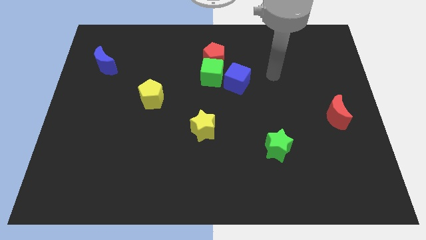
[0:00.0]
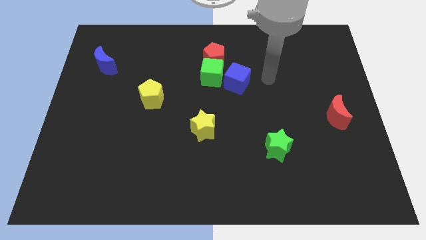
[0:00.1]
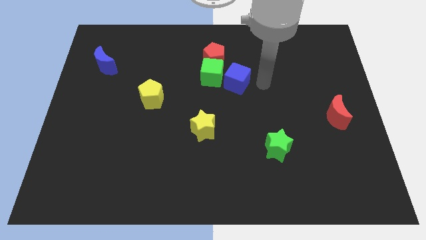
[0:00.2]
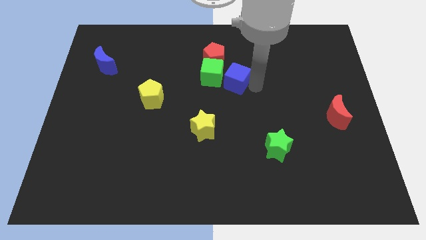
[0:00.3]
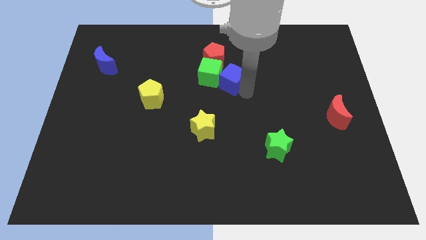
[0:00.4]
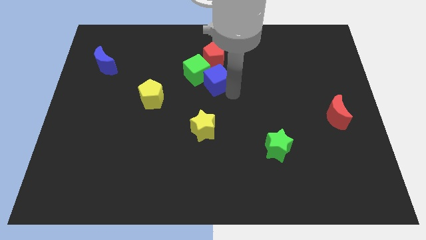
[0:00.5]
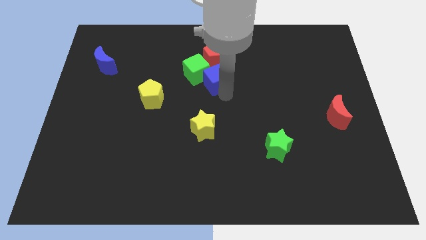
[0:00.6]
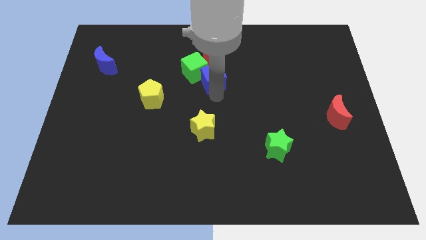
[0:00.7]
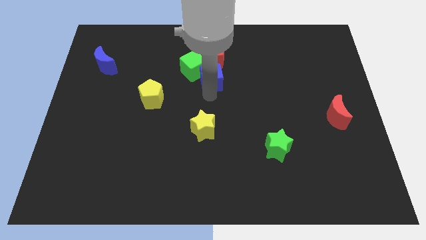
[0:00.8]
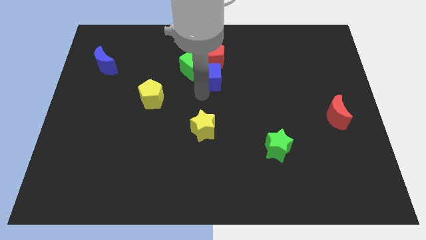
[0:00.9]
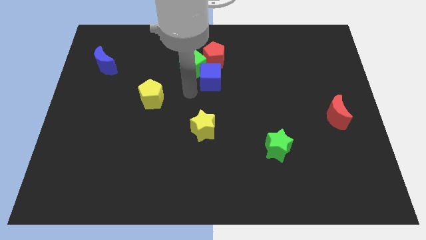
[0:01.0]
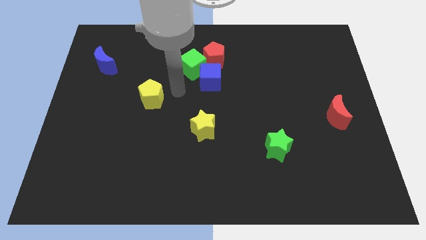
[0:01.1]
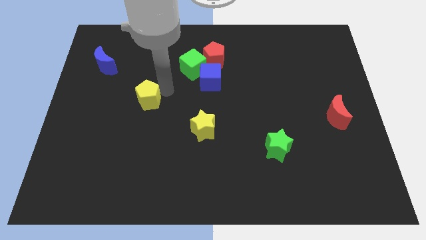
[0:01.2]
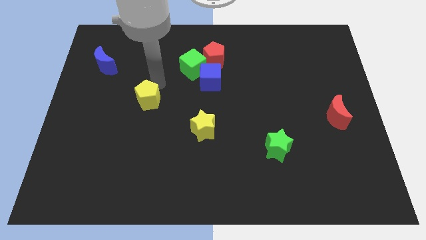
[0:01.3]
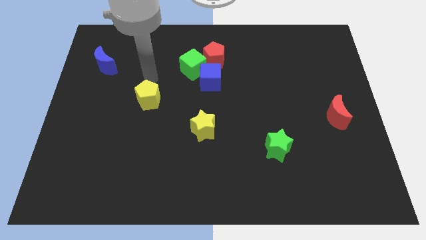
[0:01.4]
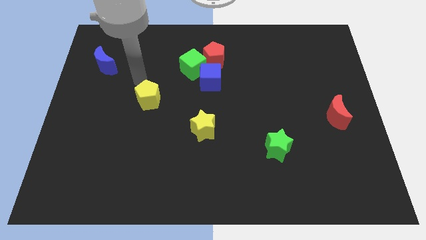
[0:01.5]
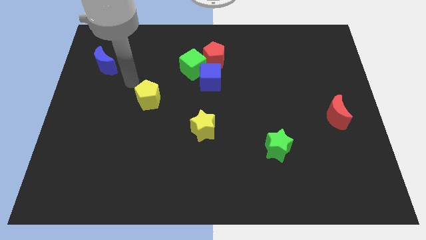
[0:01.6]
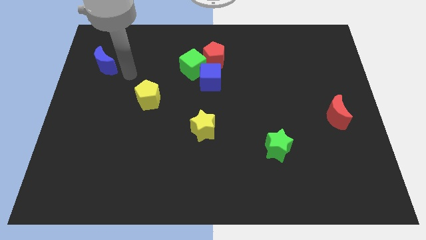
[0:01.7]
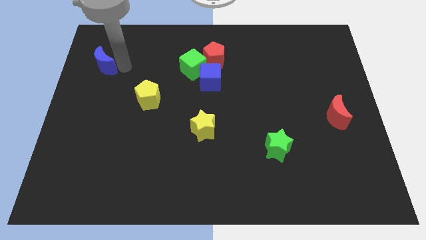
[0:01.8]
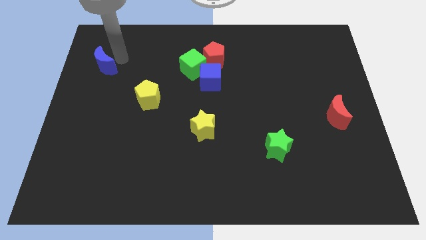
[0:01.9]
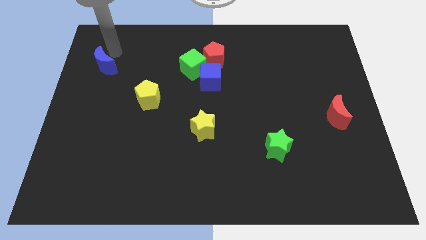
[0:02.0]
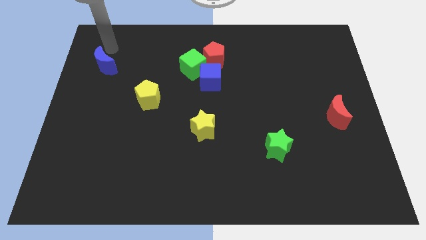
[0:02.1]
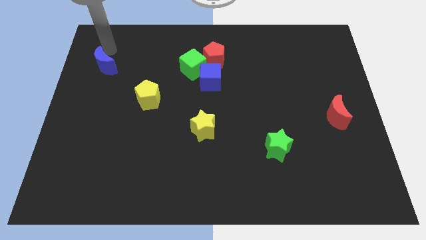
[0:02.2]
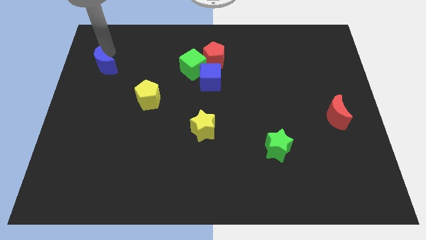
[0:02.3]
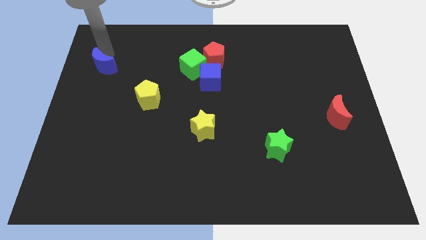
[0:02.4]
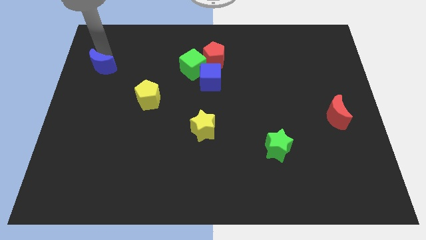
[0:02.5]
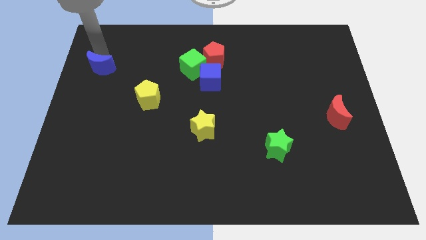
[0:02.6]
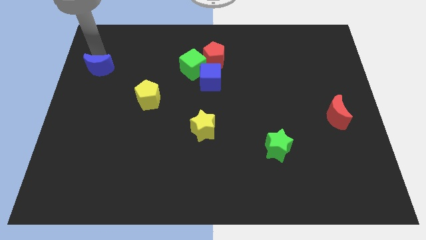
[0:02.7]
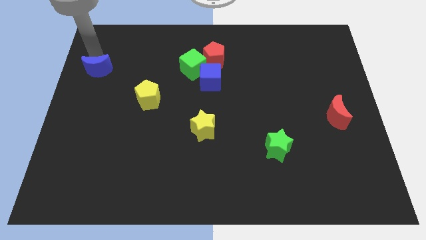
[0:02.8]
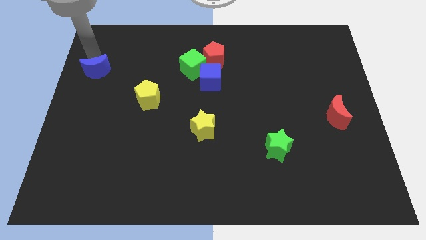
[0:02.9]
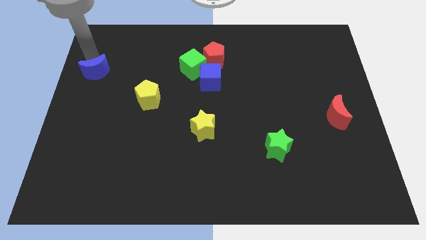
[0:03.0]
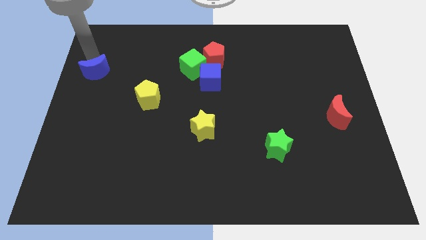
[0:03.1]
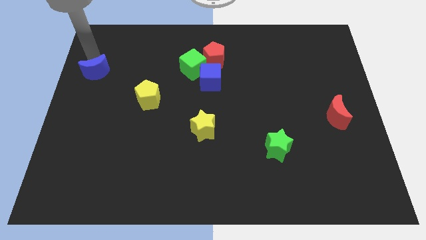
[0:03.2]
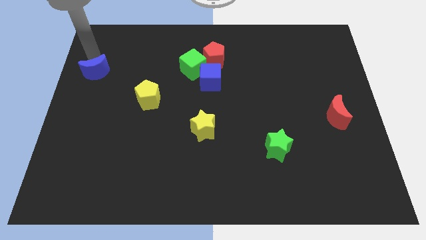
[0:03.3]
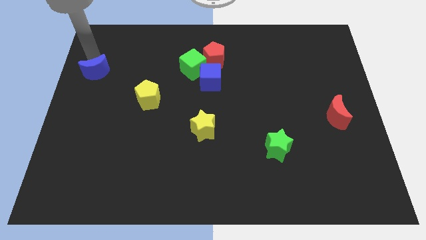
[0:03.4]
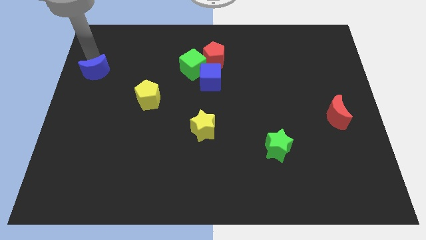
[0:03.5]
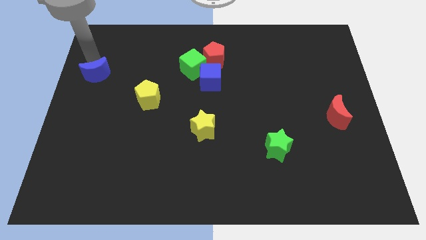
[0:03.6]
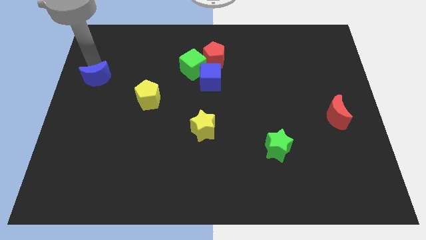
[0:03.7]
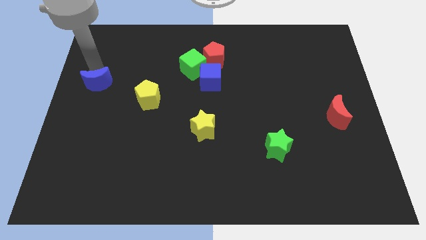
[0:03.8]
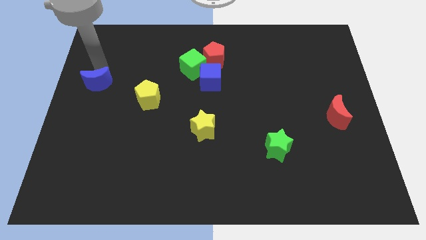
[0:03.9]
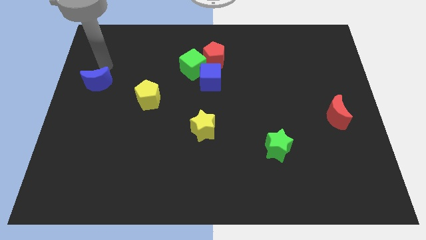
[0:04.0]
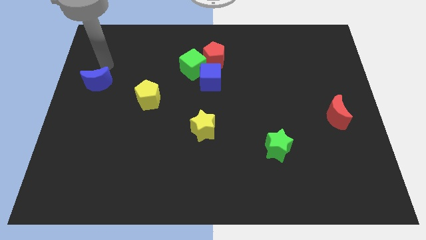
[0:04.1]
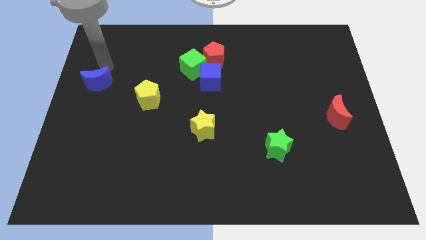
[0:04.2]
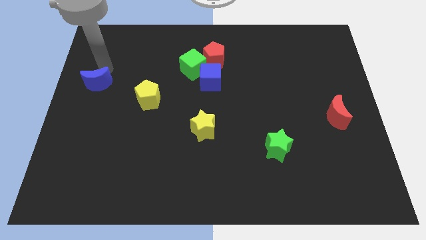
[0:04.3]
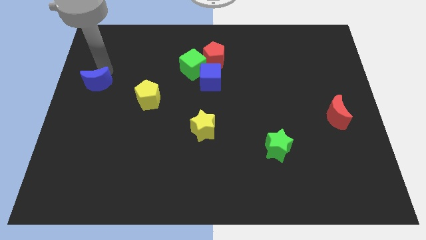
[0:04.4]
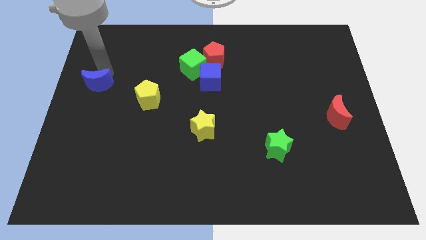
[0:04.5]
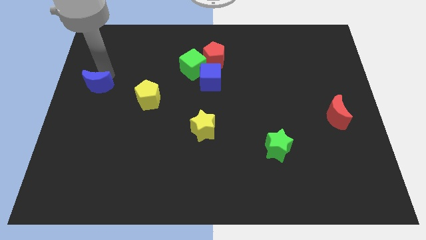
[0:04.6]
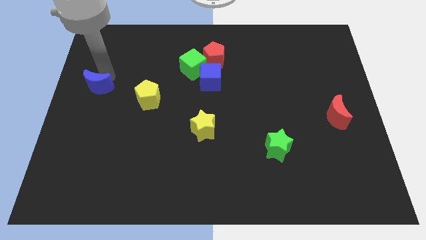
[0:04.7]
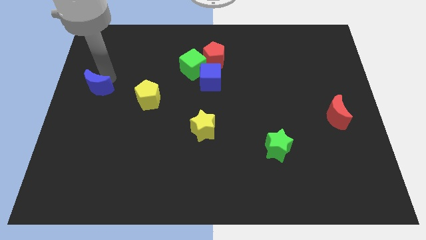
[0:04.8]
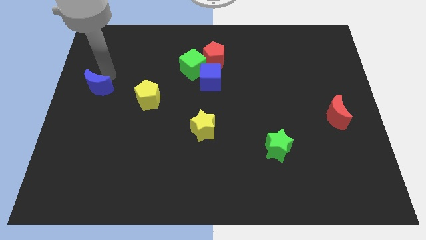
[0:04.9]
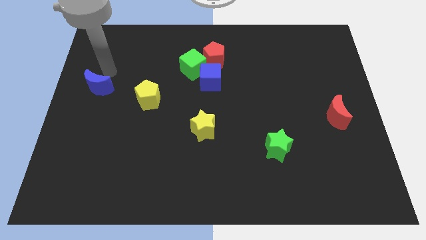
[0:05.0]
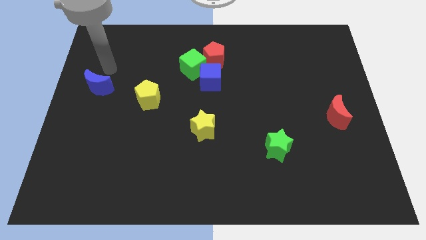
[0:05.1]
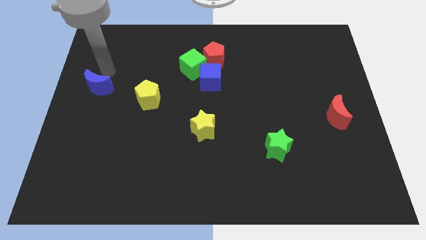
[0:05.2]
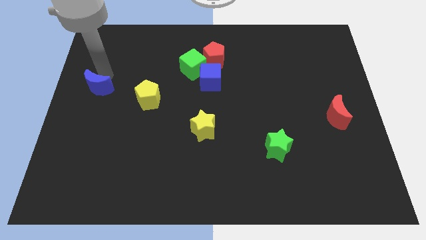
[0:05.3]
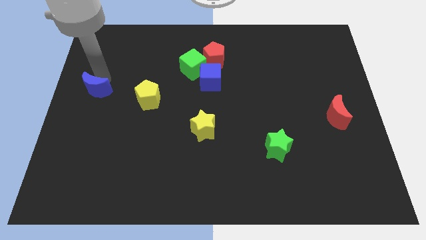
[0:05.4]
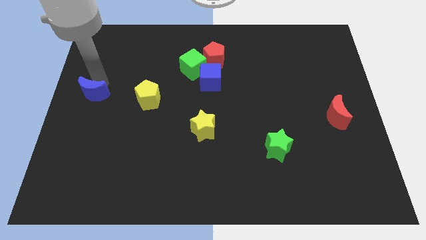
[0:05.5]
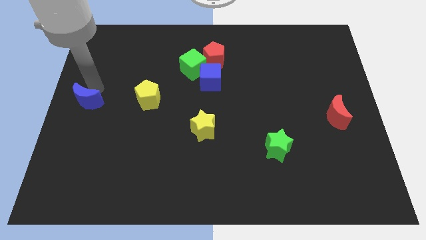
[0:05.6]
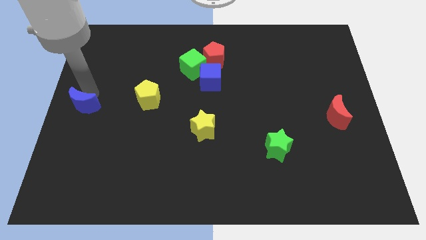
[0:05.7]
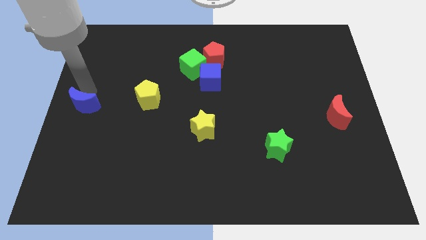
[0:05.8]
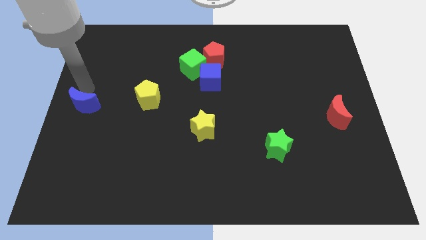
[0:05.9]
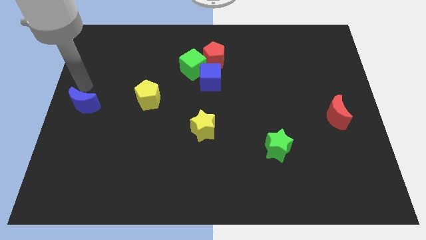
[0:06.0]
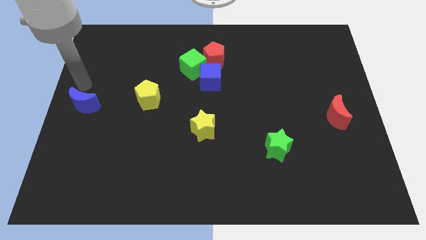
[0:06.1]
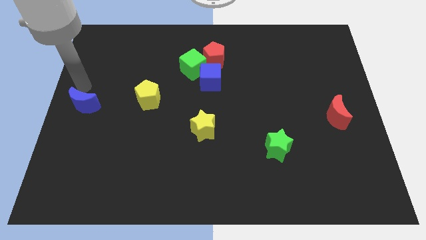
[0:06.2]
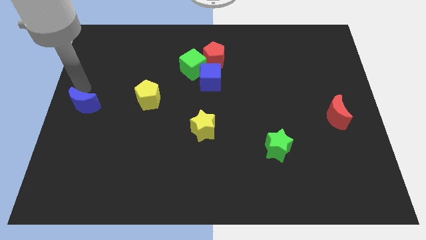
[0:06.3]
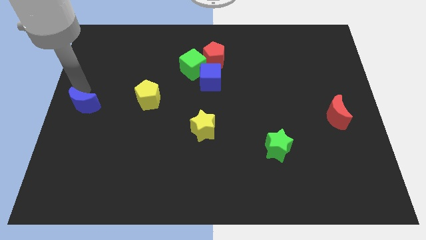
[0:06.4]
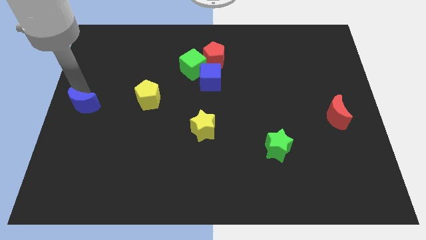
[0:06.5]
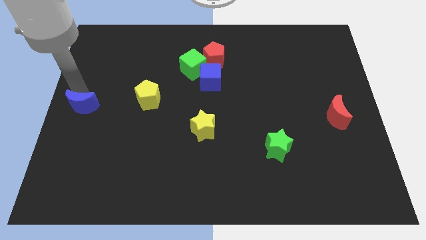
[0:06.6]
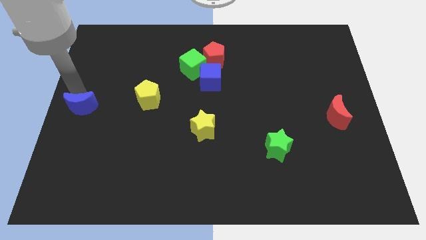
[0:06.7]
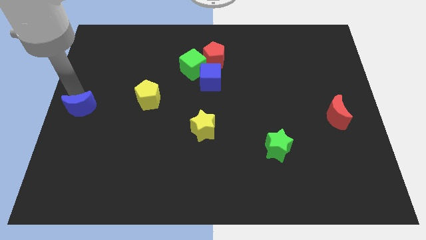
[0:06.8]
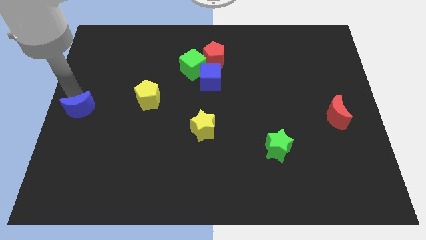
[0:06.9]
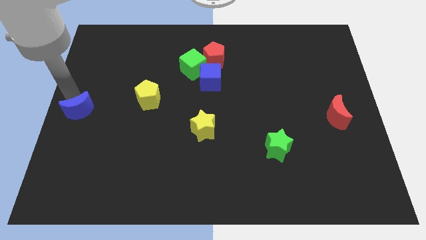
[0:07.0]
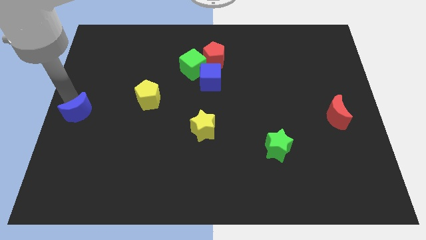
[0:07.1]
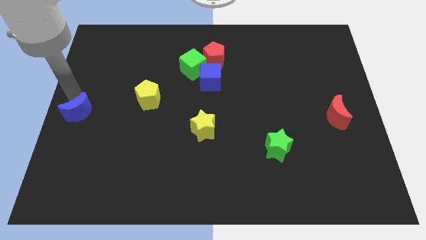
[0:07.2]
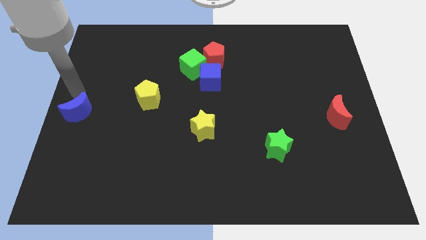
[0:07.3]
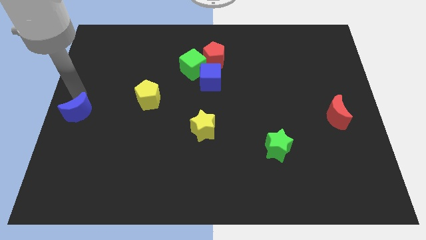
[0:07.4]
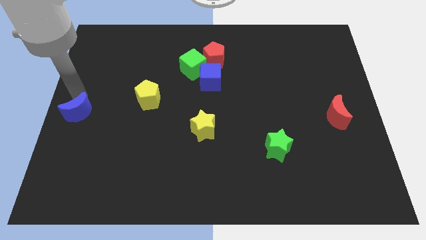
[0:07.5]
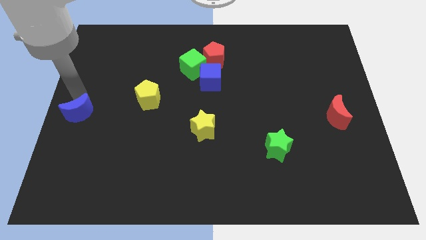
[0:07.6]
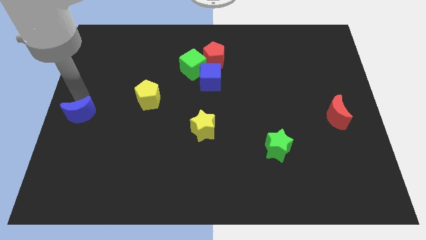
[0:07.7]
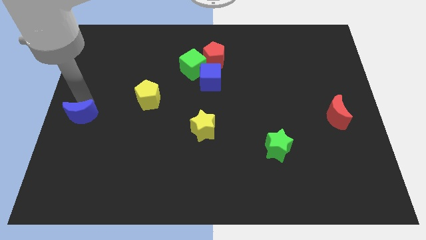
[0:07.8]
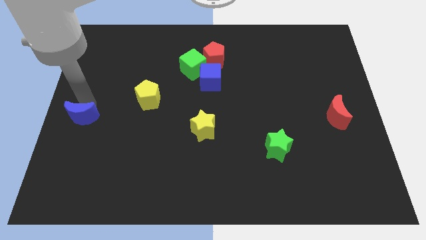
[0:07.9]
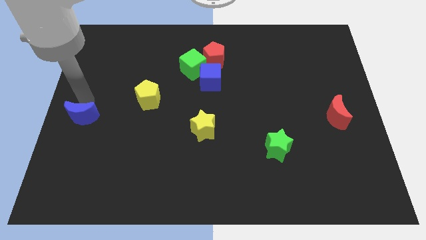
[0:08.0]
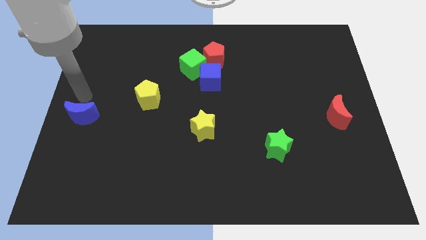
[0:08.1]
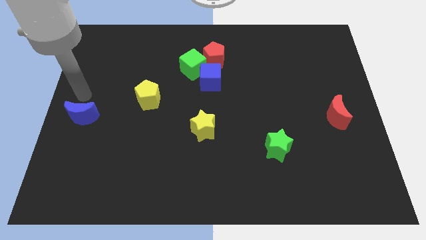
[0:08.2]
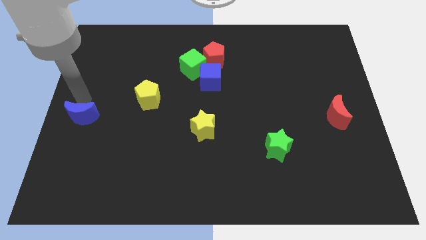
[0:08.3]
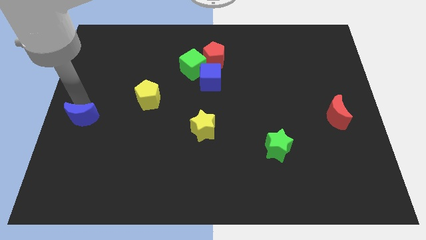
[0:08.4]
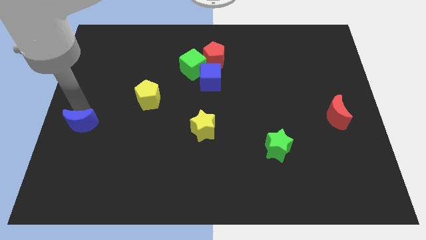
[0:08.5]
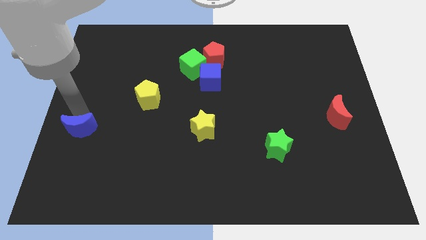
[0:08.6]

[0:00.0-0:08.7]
slide the blue moon down
